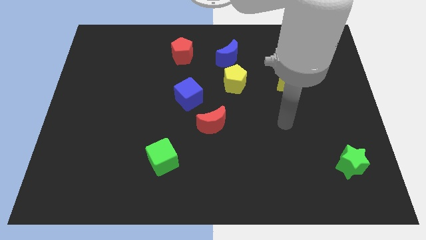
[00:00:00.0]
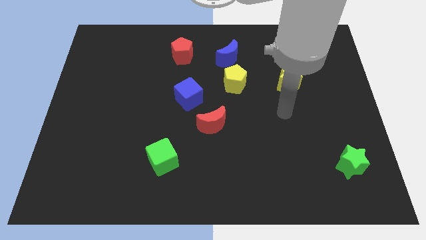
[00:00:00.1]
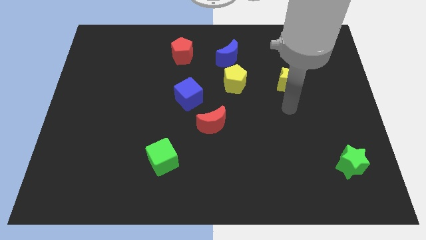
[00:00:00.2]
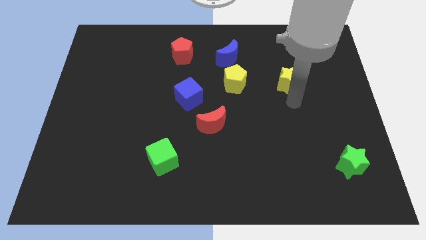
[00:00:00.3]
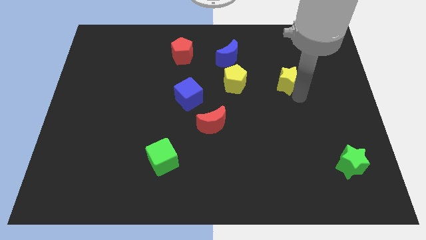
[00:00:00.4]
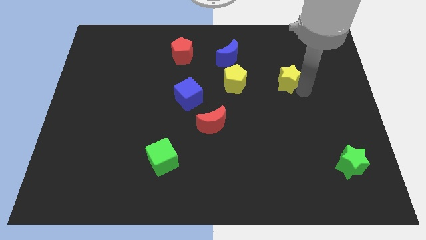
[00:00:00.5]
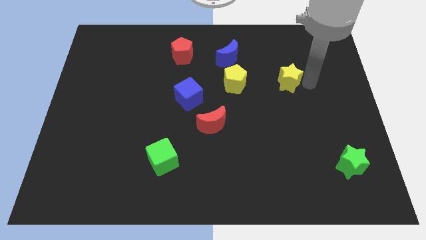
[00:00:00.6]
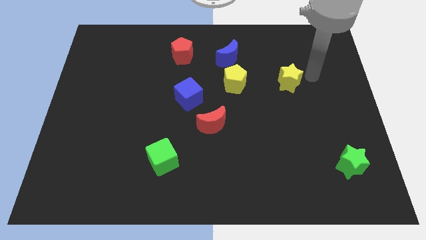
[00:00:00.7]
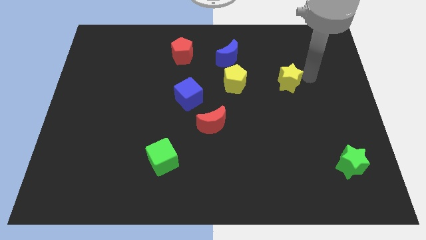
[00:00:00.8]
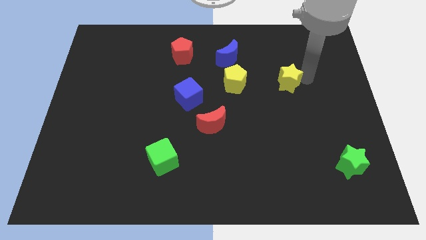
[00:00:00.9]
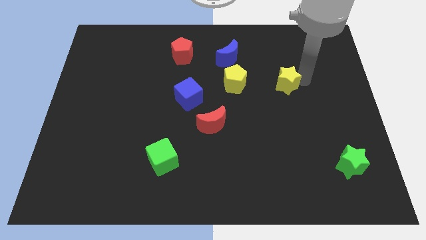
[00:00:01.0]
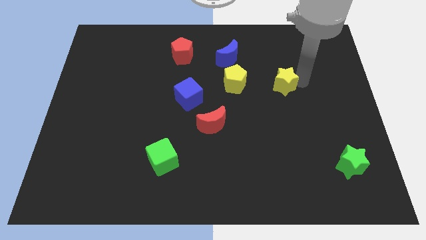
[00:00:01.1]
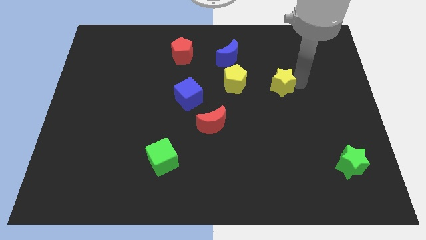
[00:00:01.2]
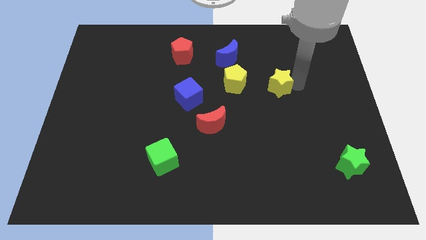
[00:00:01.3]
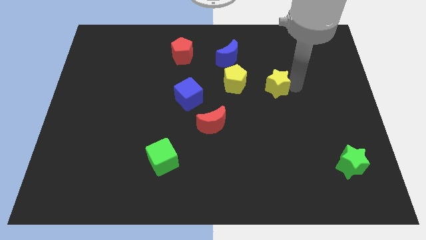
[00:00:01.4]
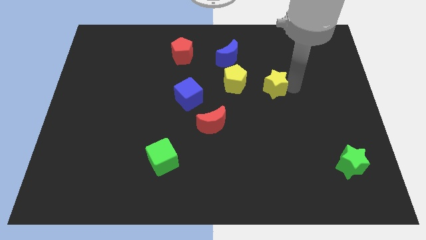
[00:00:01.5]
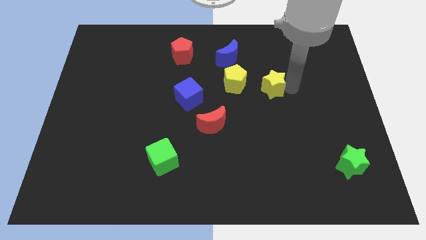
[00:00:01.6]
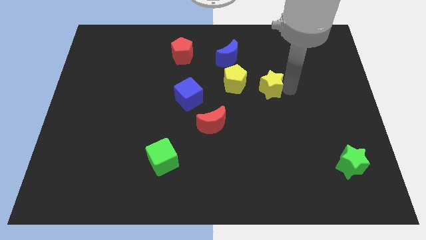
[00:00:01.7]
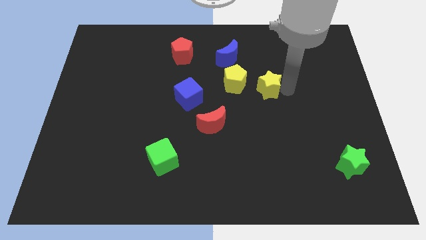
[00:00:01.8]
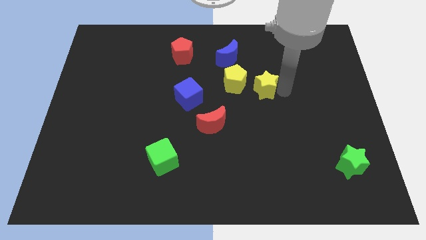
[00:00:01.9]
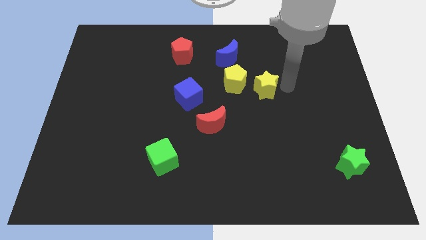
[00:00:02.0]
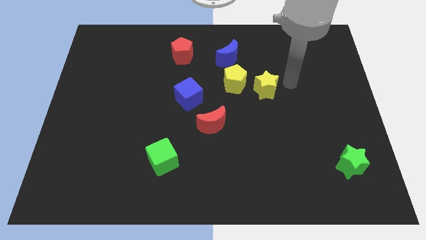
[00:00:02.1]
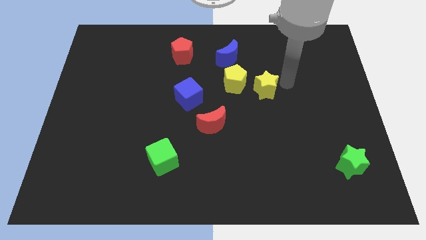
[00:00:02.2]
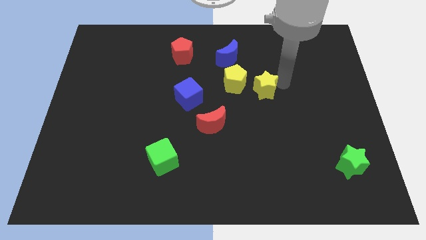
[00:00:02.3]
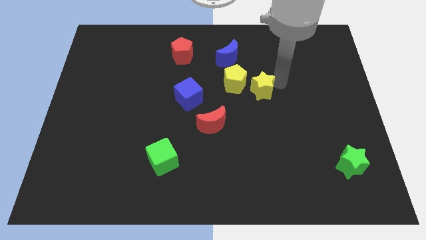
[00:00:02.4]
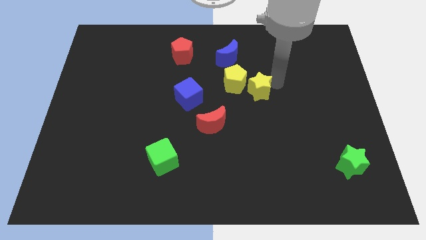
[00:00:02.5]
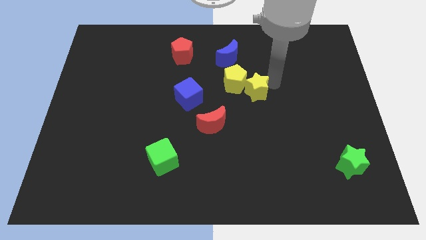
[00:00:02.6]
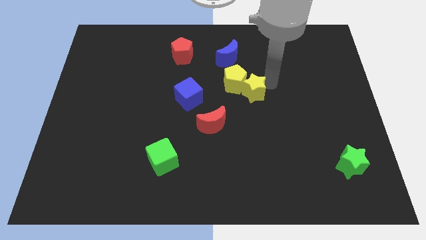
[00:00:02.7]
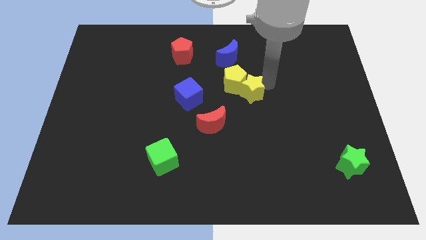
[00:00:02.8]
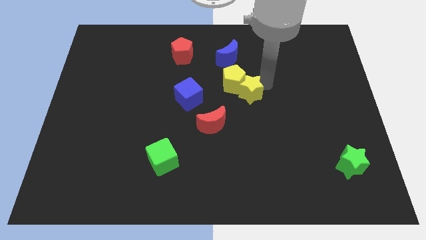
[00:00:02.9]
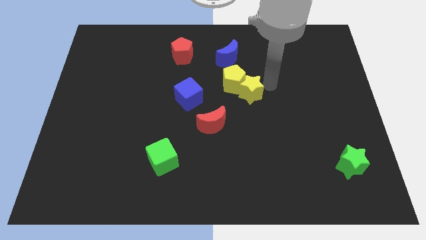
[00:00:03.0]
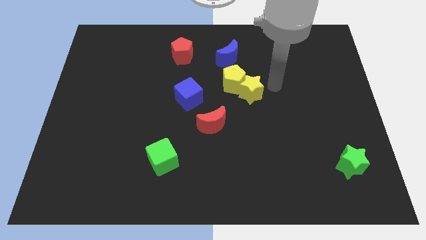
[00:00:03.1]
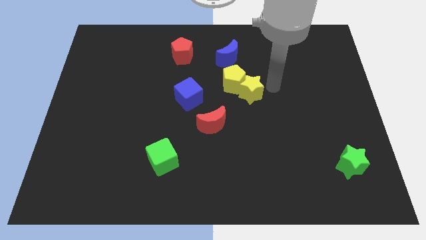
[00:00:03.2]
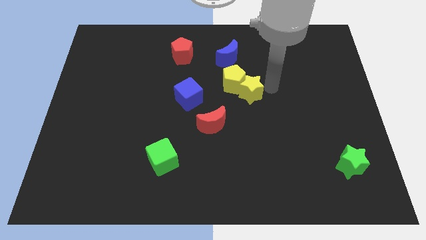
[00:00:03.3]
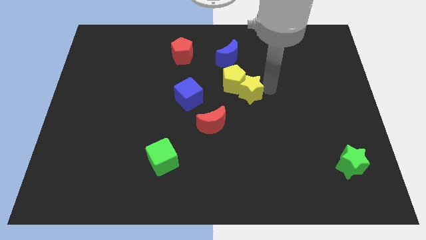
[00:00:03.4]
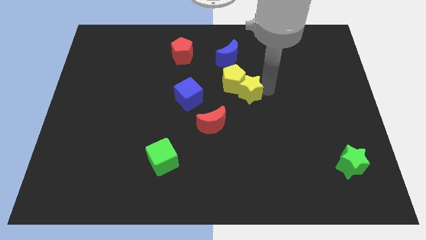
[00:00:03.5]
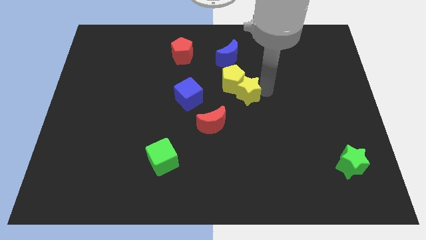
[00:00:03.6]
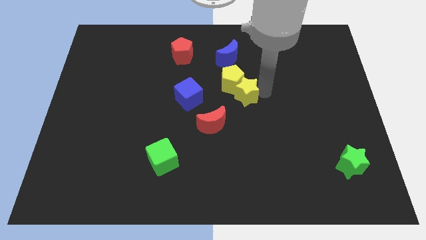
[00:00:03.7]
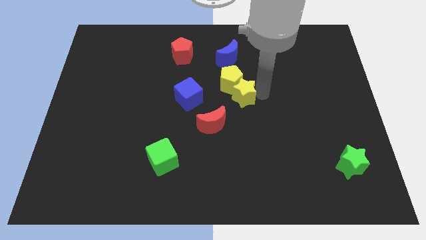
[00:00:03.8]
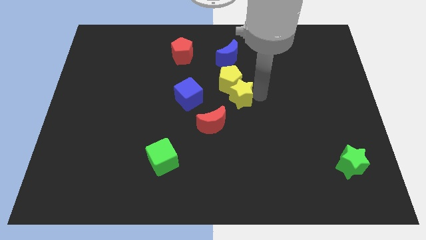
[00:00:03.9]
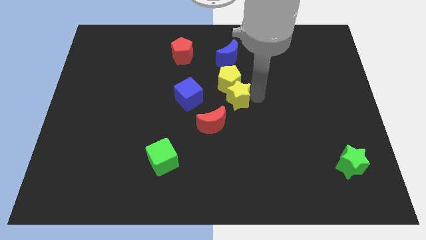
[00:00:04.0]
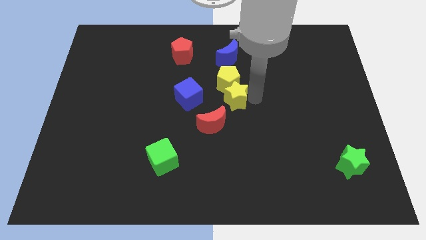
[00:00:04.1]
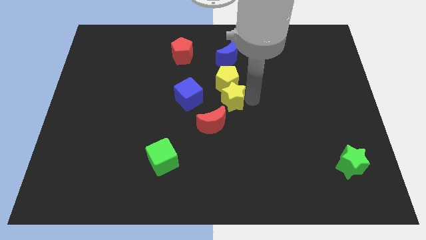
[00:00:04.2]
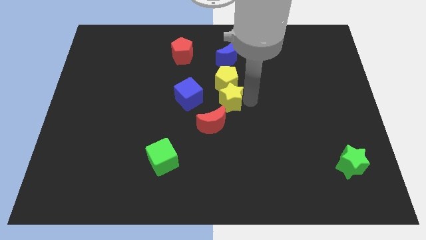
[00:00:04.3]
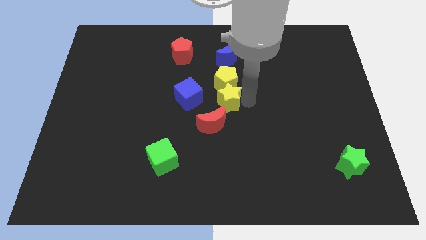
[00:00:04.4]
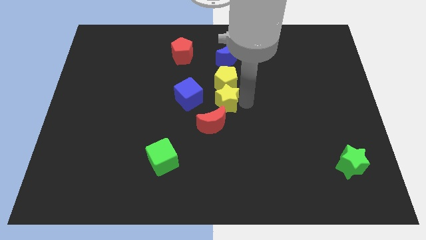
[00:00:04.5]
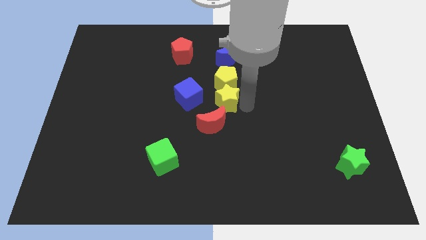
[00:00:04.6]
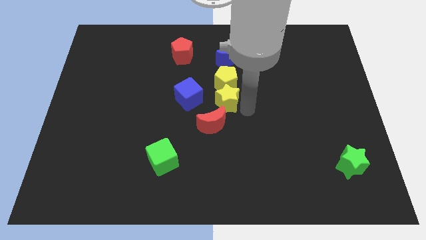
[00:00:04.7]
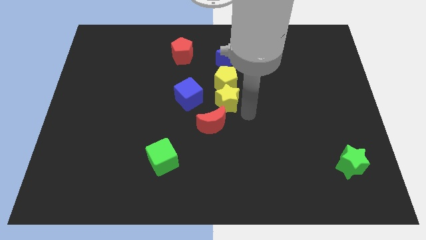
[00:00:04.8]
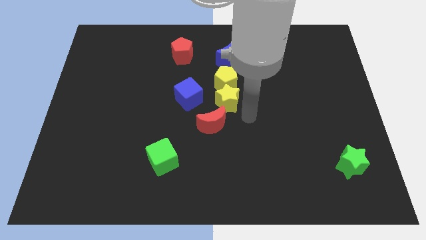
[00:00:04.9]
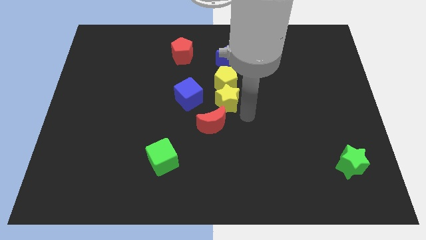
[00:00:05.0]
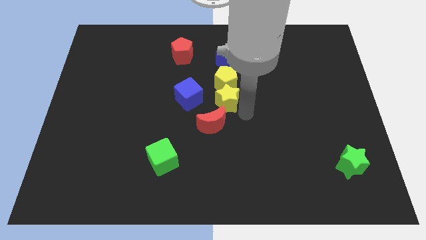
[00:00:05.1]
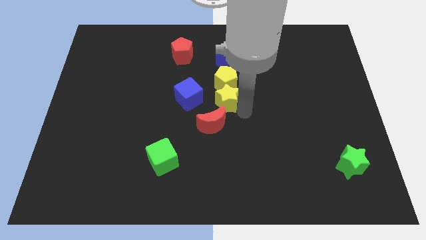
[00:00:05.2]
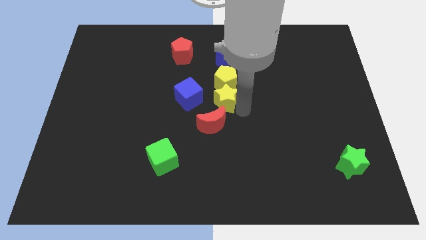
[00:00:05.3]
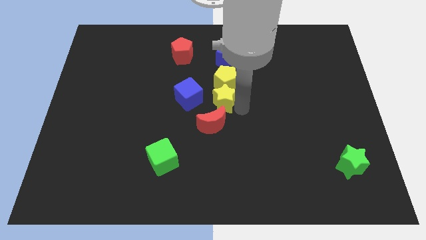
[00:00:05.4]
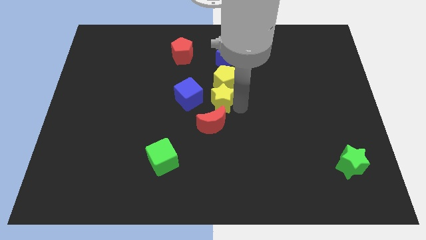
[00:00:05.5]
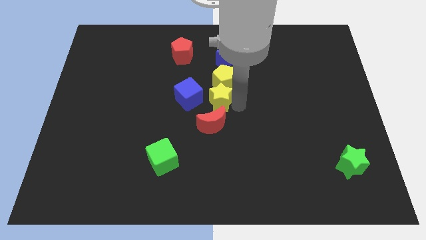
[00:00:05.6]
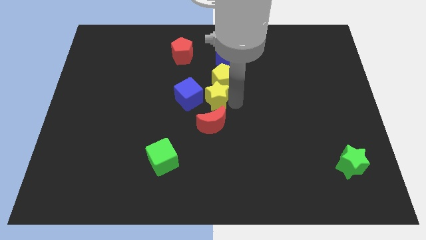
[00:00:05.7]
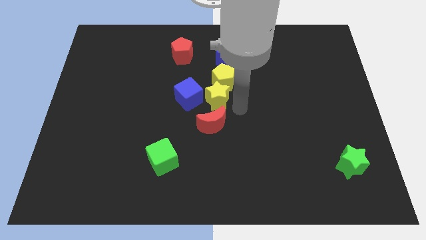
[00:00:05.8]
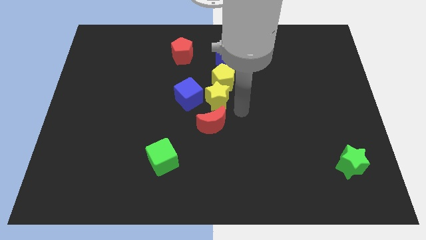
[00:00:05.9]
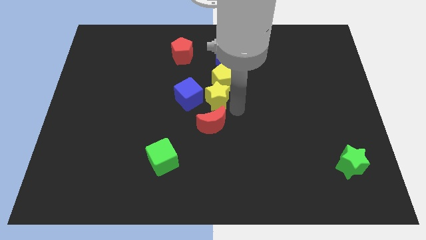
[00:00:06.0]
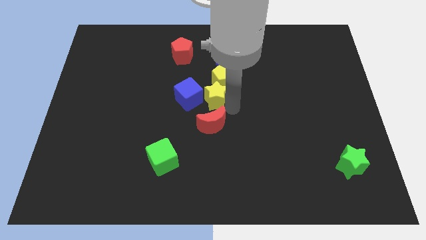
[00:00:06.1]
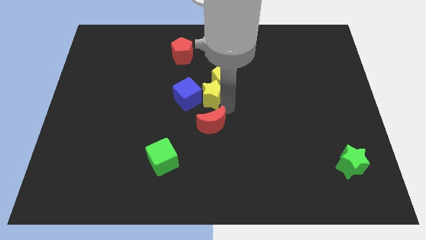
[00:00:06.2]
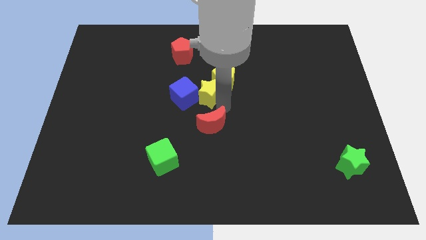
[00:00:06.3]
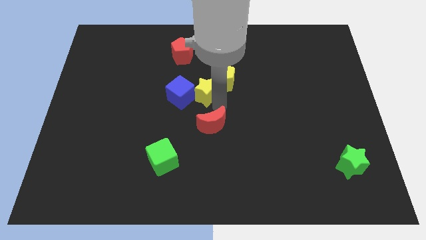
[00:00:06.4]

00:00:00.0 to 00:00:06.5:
move the yellow star just left of the yellow pentagon
